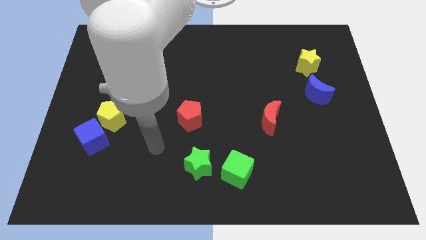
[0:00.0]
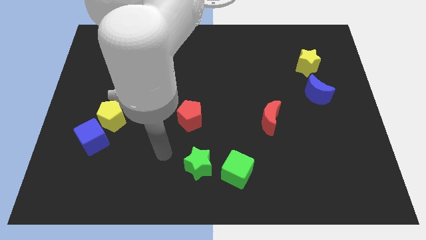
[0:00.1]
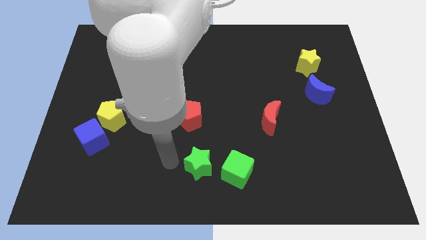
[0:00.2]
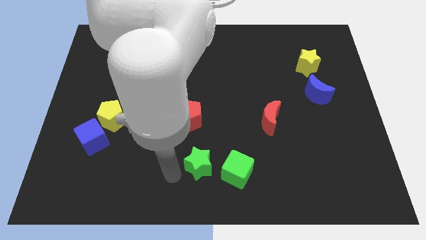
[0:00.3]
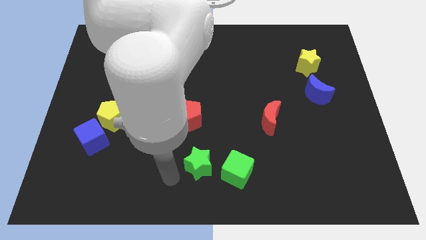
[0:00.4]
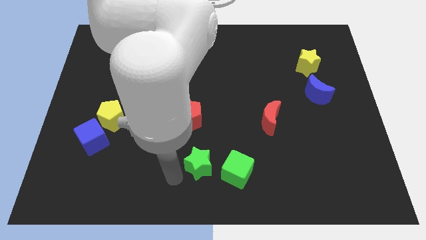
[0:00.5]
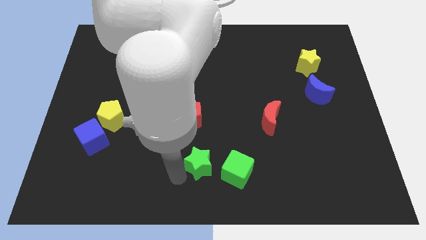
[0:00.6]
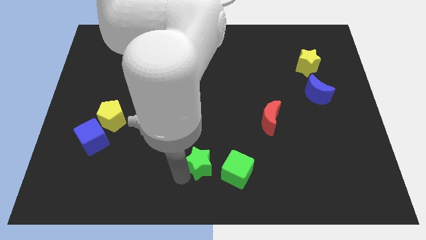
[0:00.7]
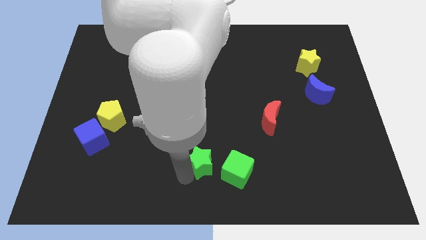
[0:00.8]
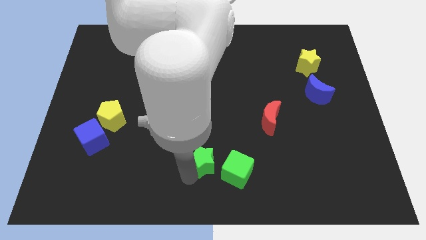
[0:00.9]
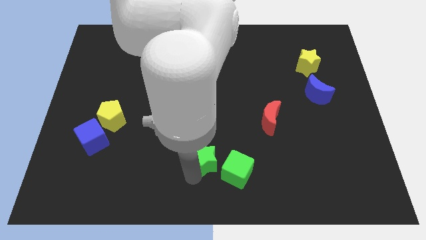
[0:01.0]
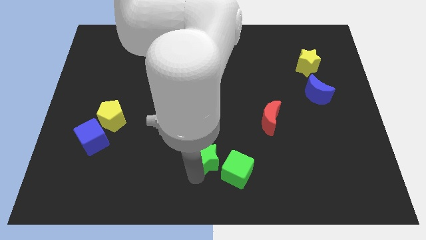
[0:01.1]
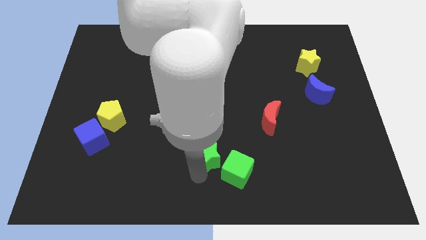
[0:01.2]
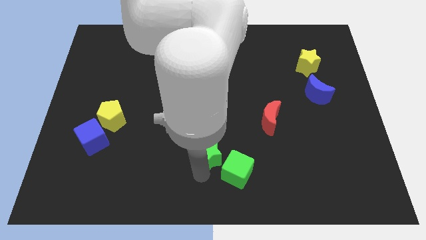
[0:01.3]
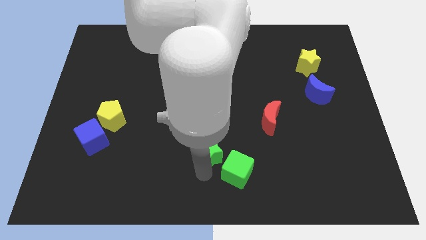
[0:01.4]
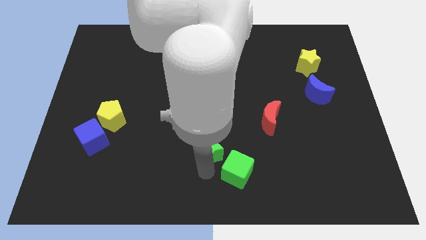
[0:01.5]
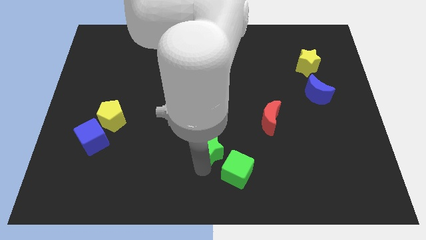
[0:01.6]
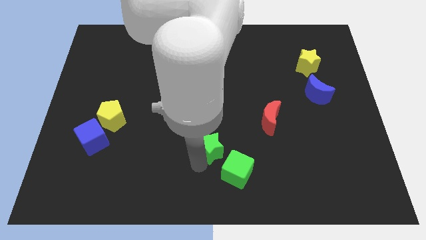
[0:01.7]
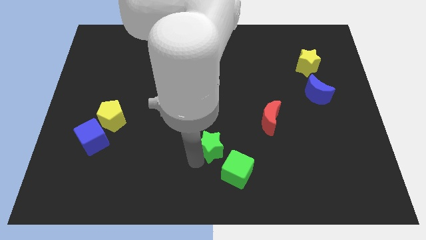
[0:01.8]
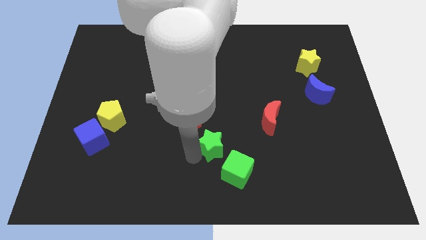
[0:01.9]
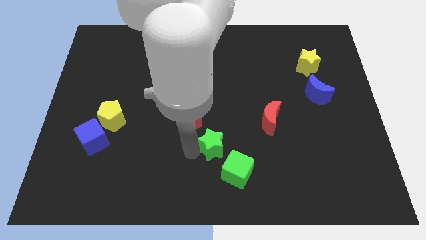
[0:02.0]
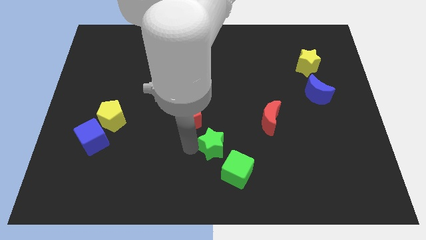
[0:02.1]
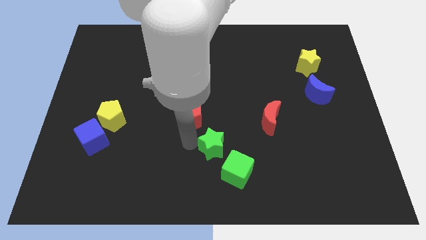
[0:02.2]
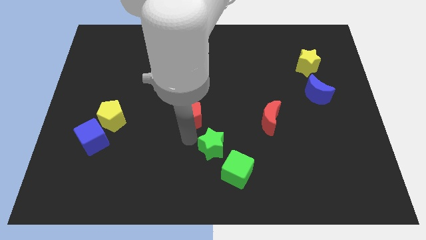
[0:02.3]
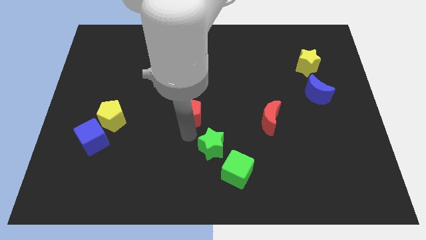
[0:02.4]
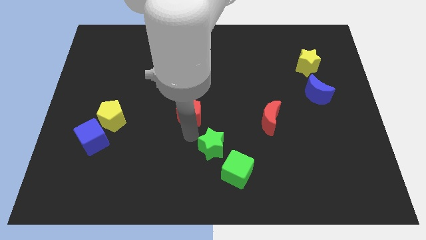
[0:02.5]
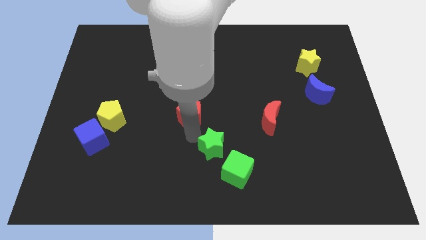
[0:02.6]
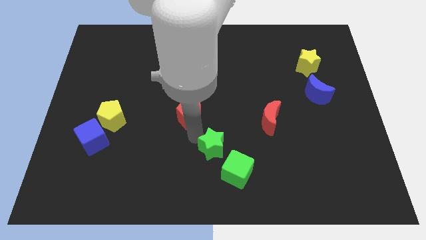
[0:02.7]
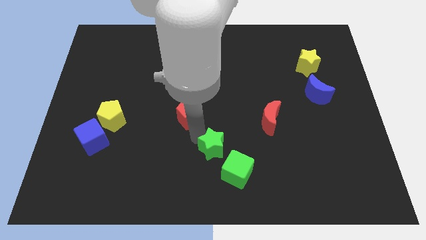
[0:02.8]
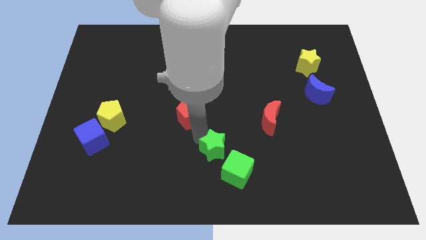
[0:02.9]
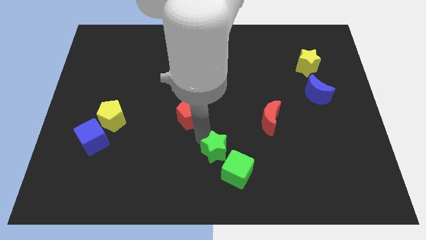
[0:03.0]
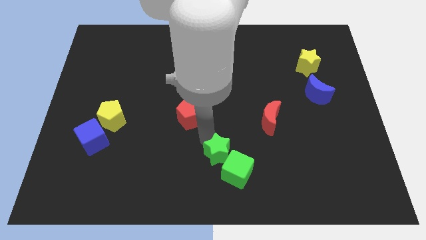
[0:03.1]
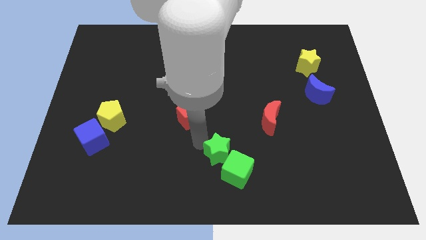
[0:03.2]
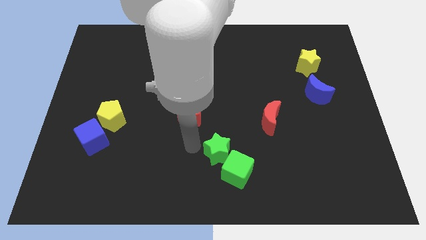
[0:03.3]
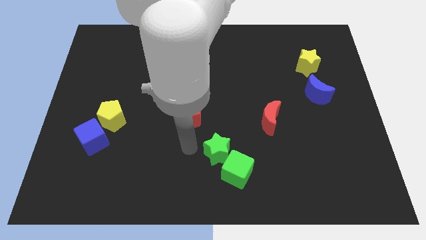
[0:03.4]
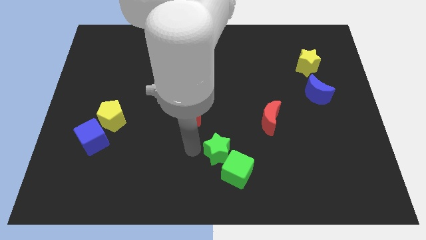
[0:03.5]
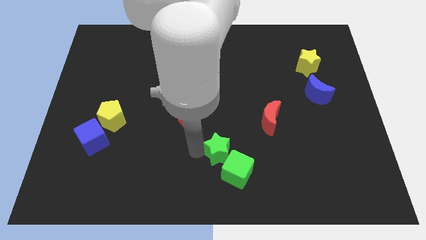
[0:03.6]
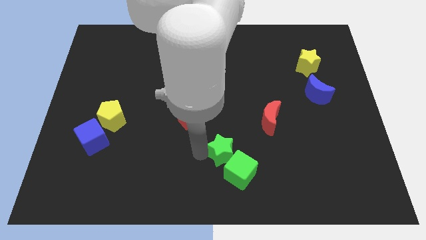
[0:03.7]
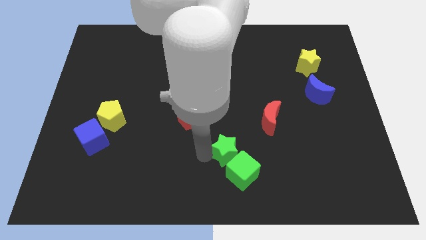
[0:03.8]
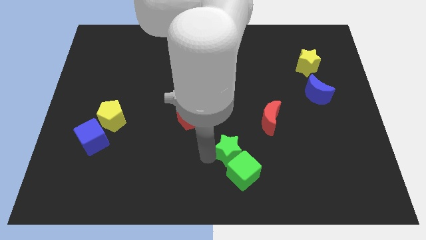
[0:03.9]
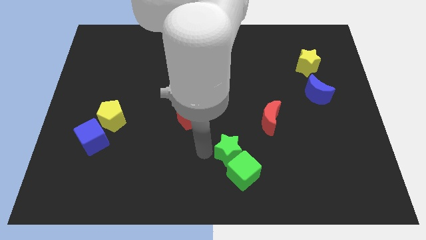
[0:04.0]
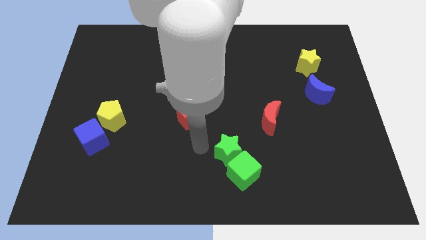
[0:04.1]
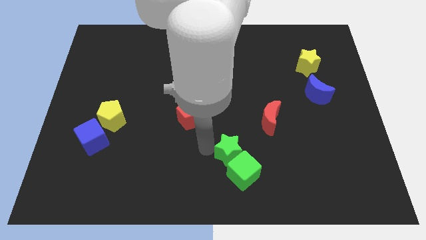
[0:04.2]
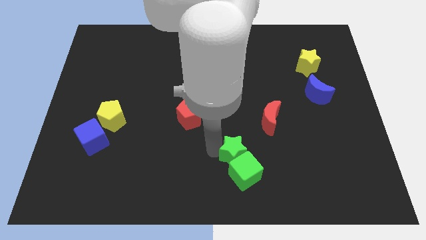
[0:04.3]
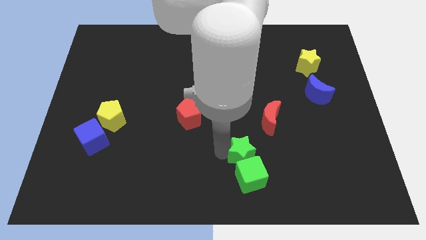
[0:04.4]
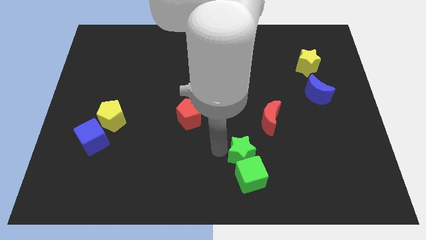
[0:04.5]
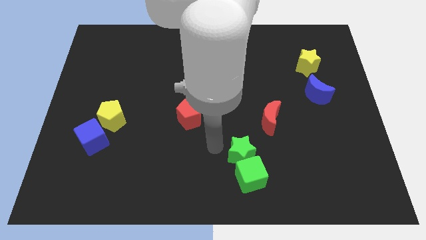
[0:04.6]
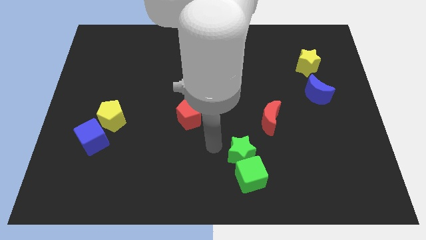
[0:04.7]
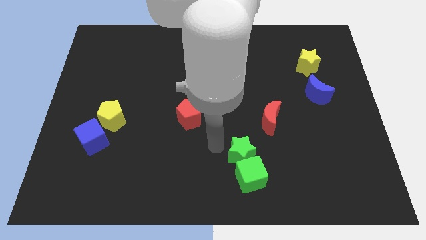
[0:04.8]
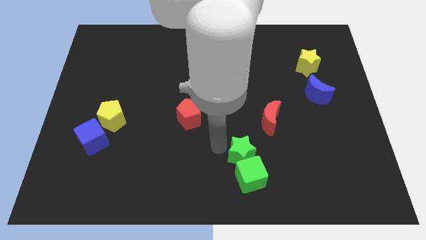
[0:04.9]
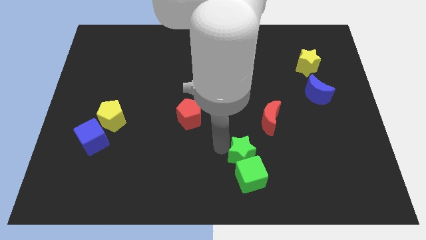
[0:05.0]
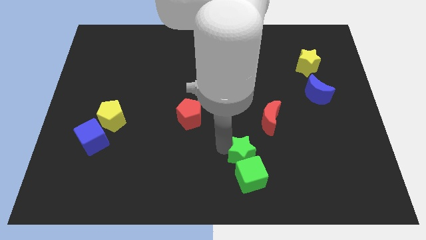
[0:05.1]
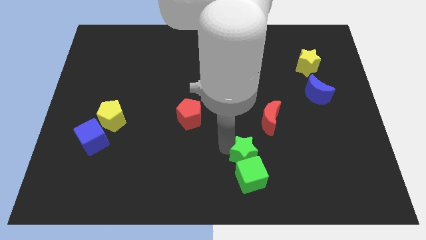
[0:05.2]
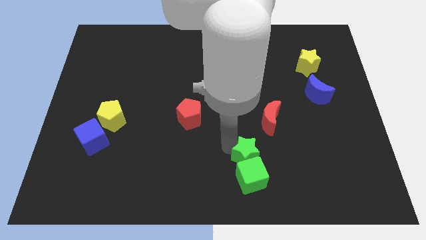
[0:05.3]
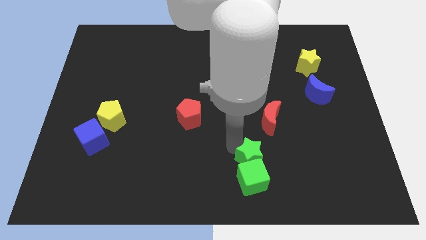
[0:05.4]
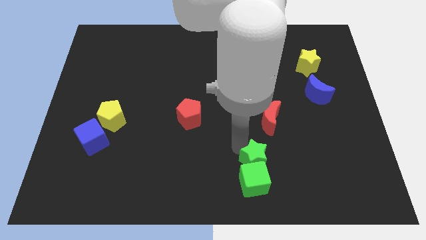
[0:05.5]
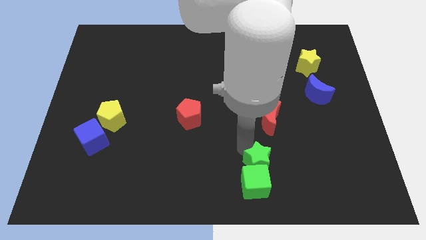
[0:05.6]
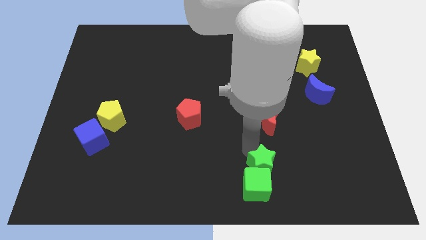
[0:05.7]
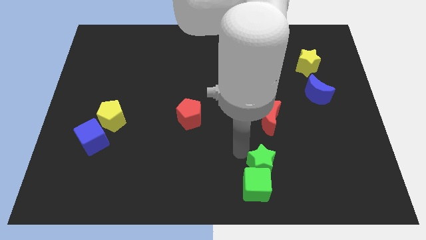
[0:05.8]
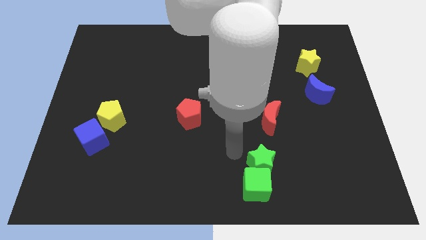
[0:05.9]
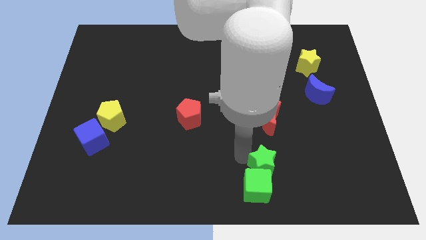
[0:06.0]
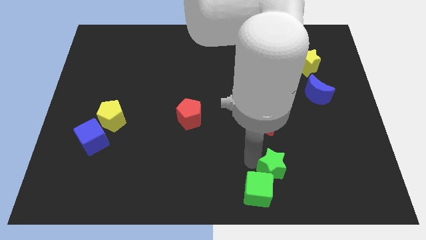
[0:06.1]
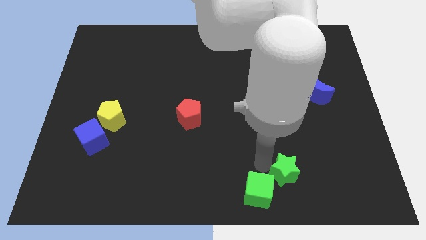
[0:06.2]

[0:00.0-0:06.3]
push the green star to the right side of the green cube

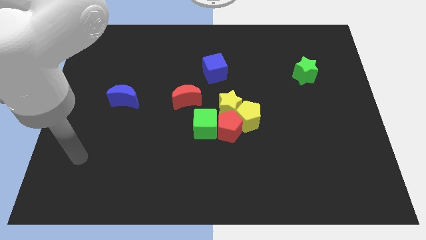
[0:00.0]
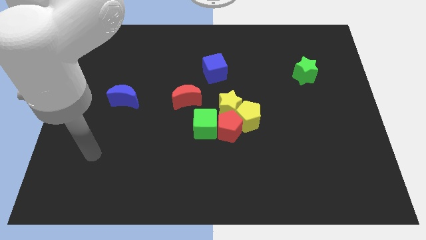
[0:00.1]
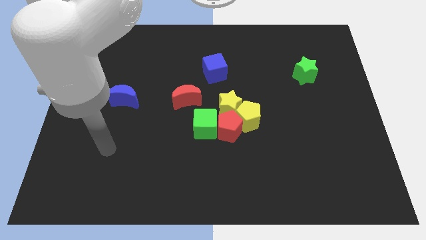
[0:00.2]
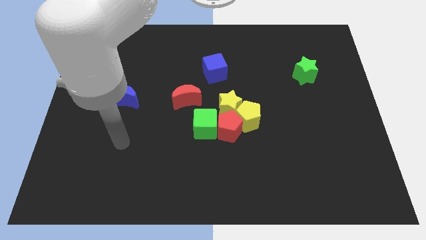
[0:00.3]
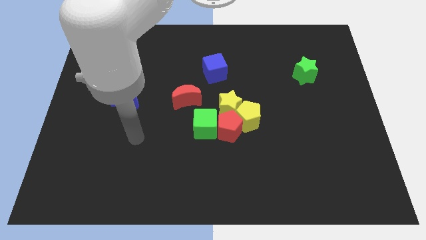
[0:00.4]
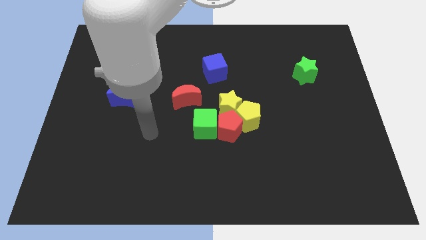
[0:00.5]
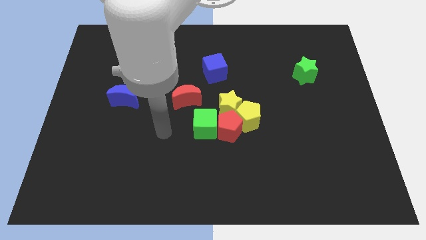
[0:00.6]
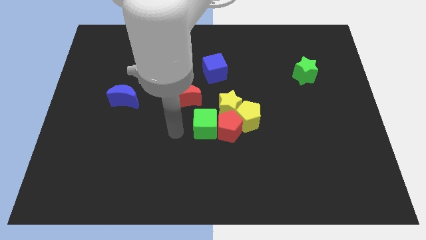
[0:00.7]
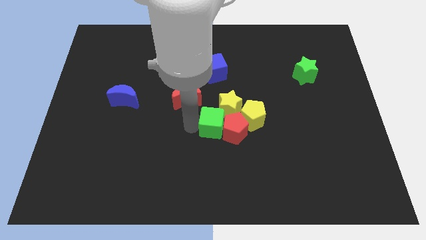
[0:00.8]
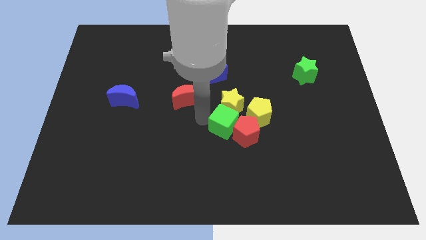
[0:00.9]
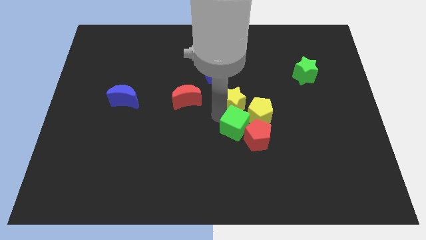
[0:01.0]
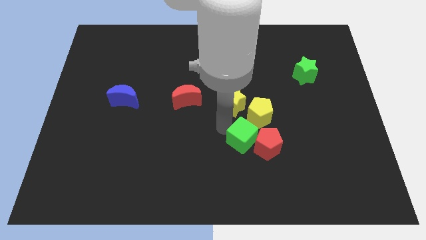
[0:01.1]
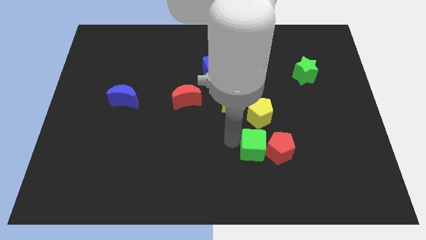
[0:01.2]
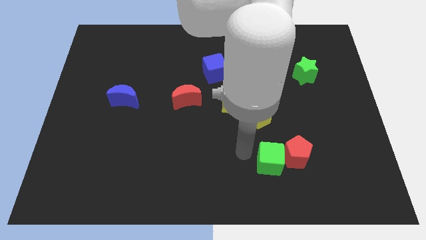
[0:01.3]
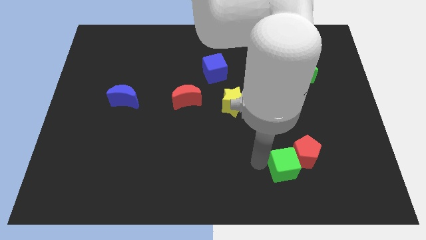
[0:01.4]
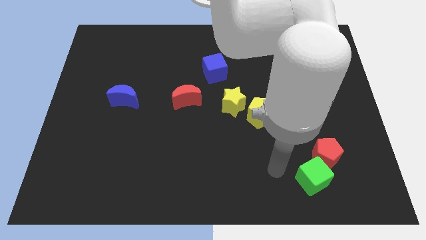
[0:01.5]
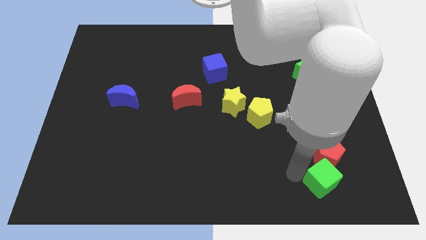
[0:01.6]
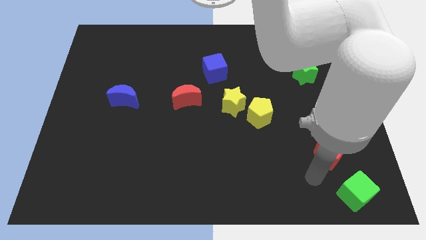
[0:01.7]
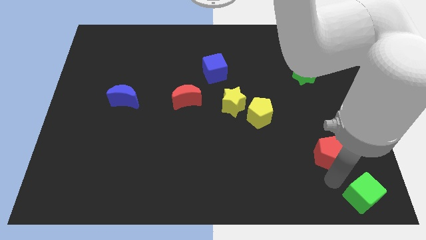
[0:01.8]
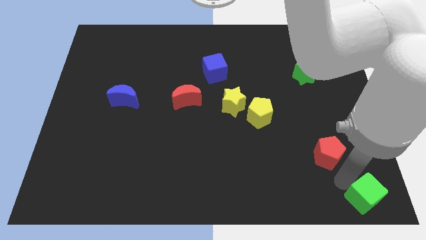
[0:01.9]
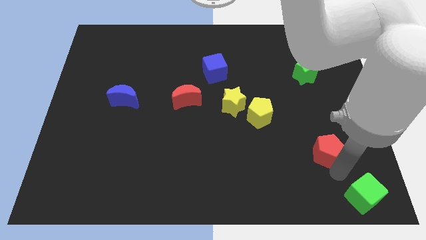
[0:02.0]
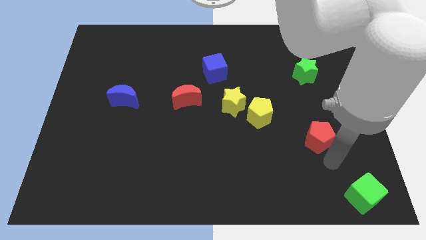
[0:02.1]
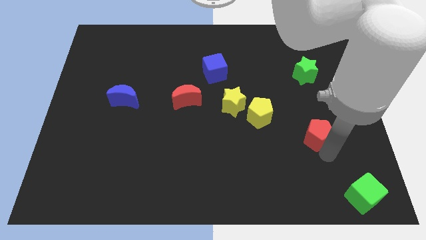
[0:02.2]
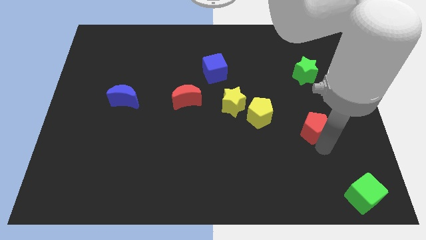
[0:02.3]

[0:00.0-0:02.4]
move the red pentagon right of the yellow pentagon
